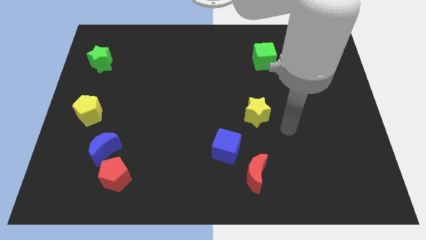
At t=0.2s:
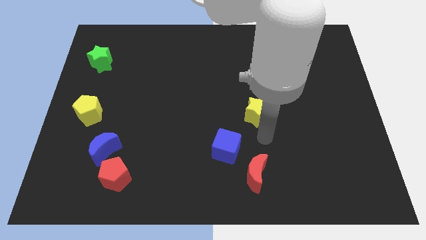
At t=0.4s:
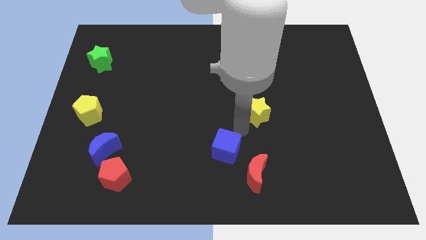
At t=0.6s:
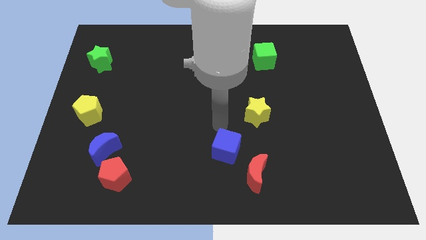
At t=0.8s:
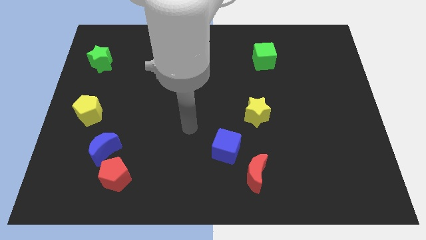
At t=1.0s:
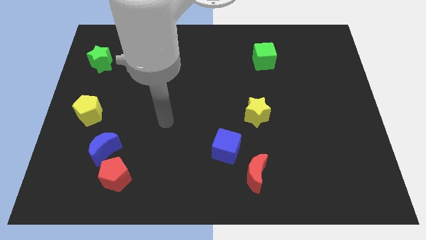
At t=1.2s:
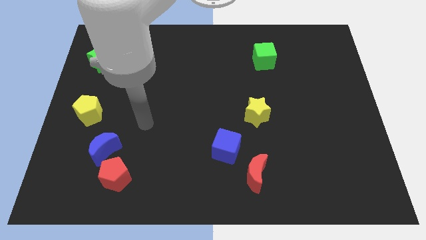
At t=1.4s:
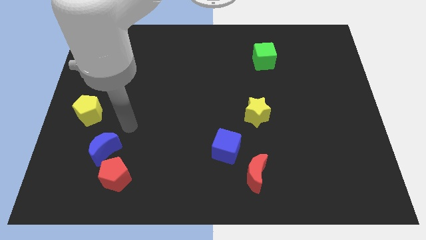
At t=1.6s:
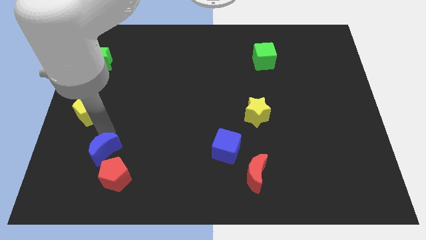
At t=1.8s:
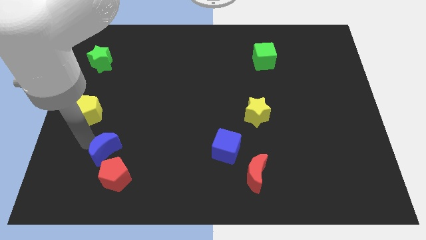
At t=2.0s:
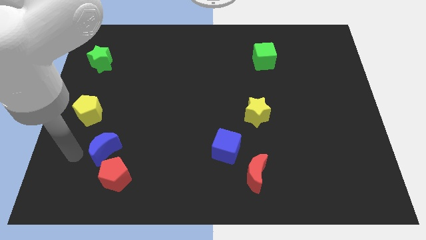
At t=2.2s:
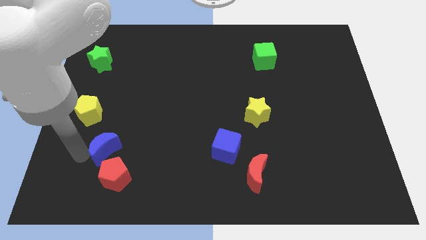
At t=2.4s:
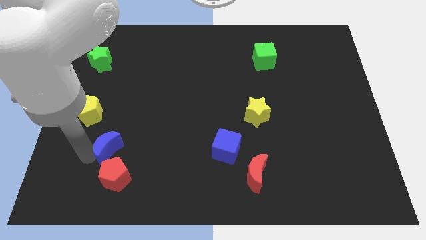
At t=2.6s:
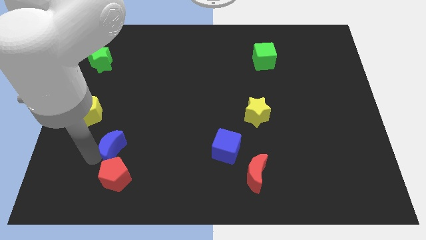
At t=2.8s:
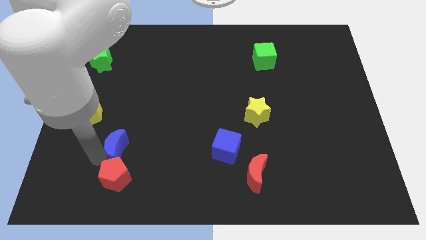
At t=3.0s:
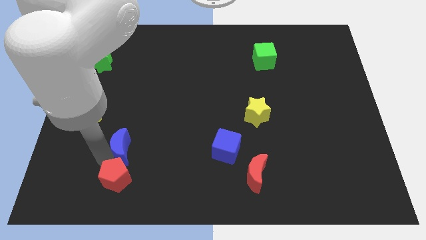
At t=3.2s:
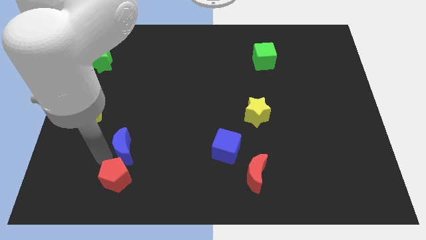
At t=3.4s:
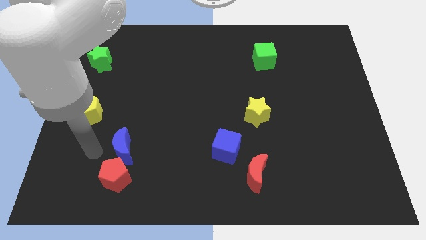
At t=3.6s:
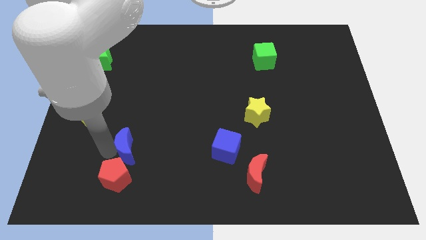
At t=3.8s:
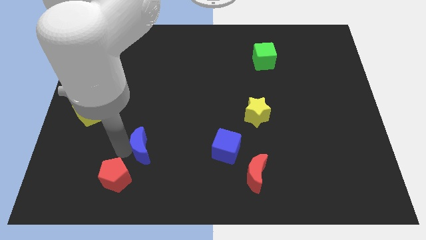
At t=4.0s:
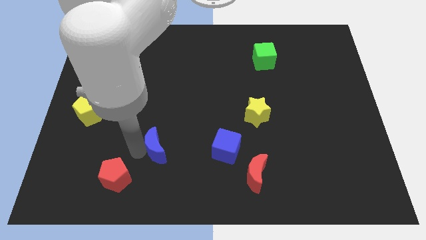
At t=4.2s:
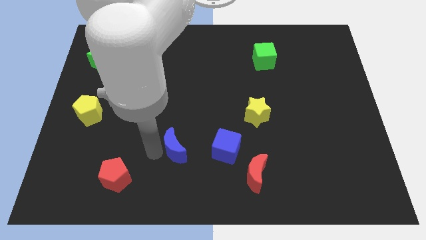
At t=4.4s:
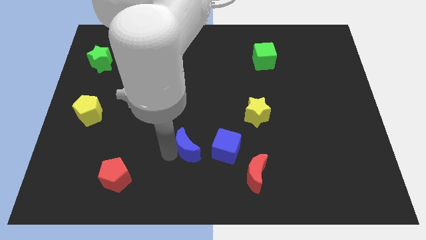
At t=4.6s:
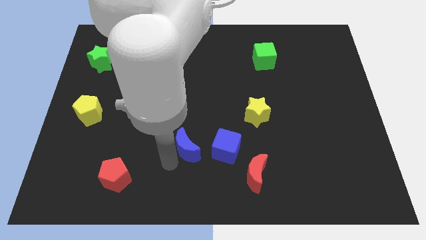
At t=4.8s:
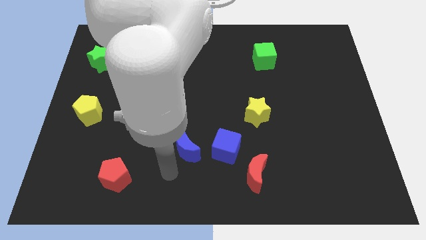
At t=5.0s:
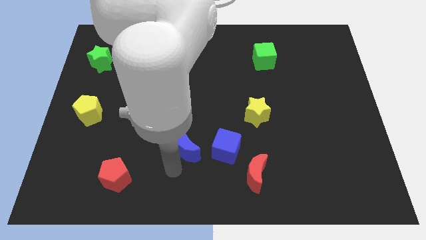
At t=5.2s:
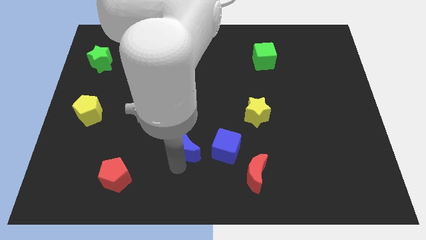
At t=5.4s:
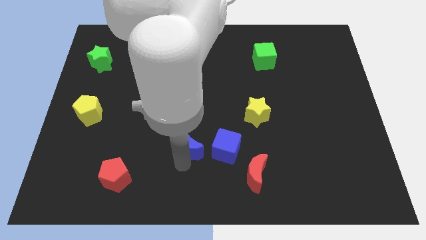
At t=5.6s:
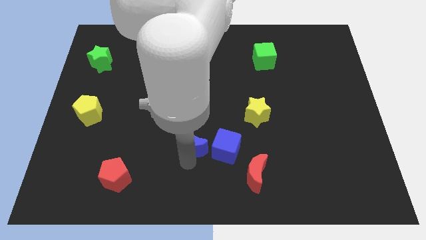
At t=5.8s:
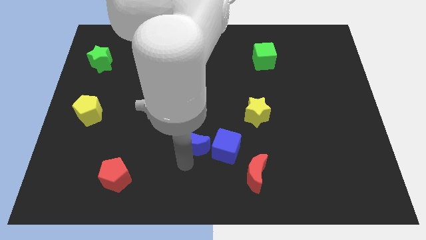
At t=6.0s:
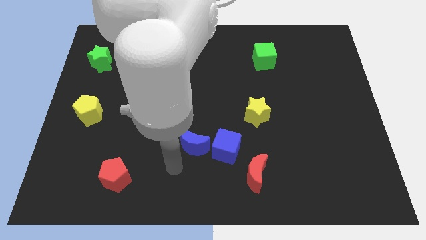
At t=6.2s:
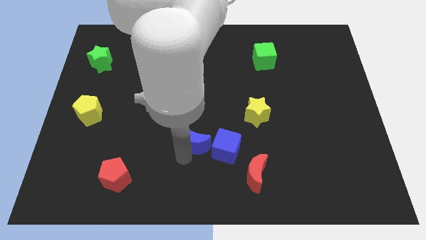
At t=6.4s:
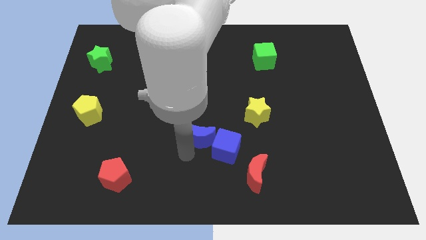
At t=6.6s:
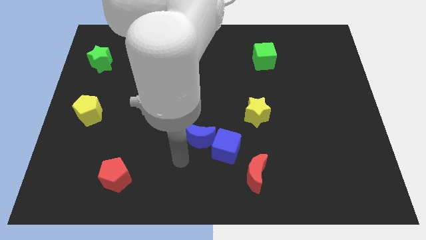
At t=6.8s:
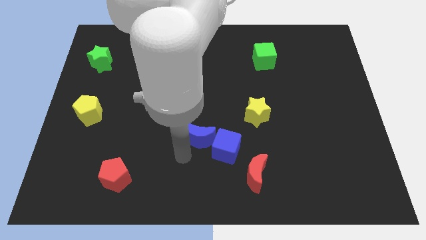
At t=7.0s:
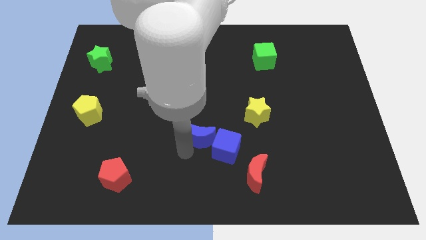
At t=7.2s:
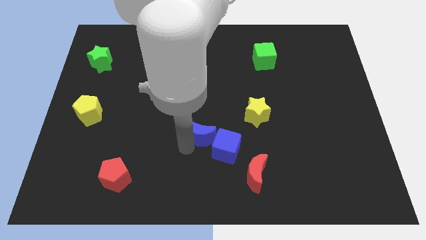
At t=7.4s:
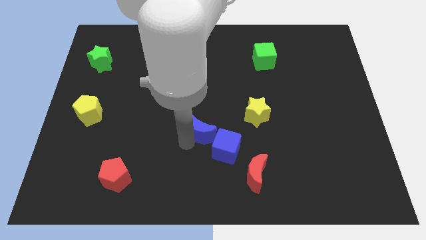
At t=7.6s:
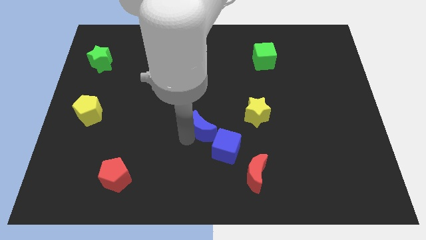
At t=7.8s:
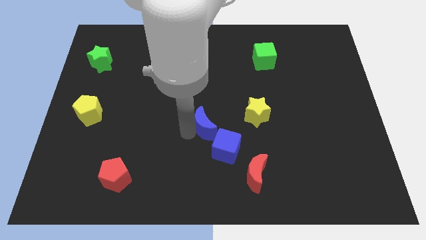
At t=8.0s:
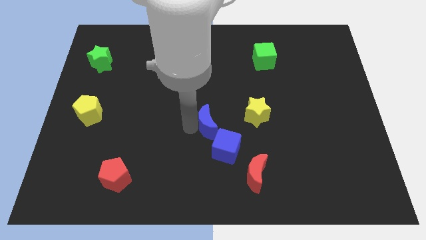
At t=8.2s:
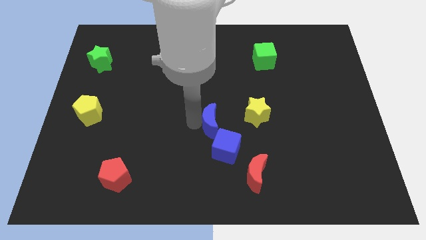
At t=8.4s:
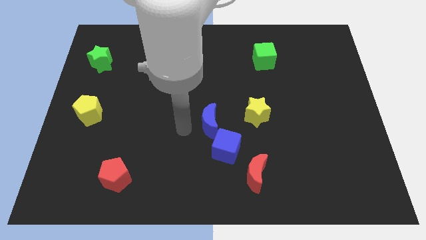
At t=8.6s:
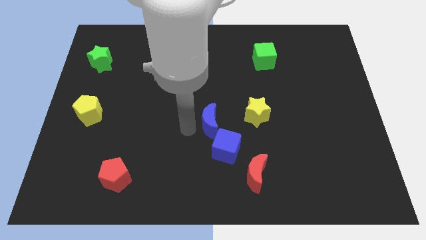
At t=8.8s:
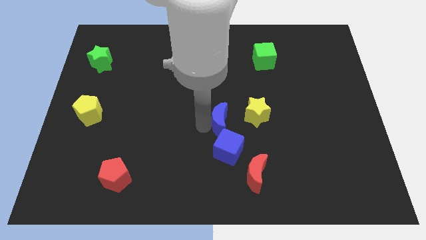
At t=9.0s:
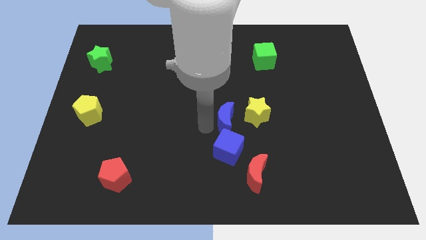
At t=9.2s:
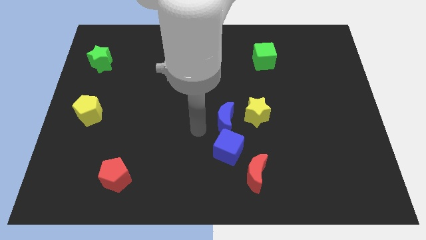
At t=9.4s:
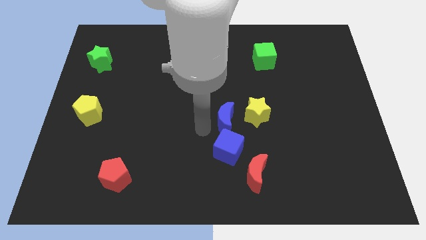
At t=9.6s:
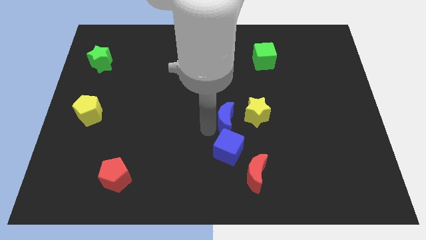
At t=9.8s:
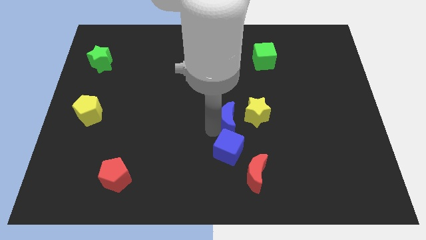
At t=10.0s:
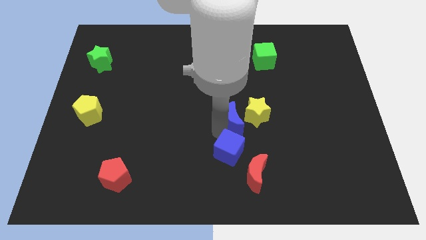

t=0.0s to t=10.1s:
move the blue moon to the yellow star

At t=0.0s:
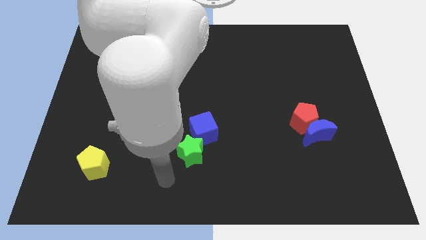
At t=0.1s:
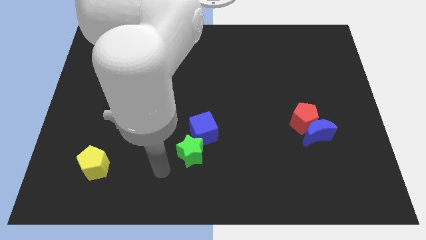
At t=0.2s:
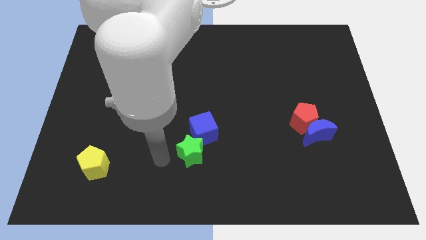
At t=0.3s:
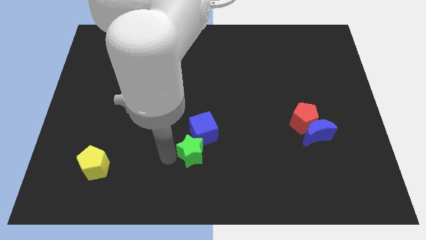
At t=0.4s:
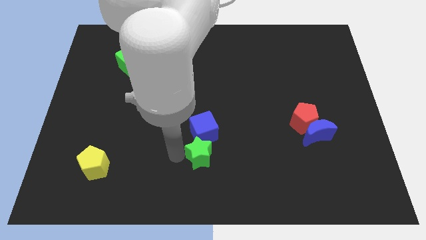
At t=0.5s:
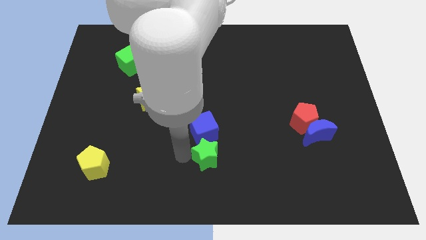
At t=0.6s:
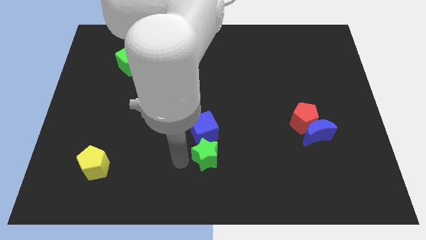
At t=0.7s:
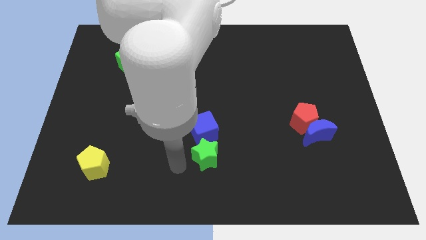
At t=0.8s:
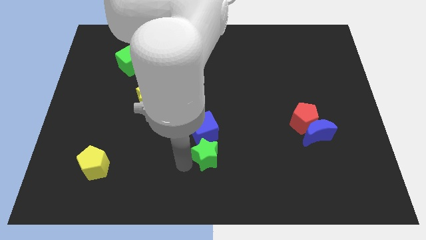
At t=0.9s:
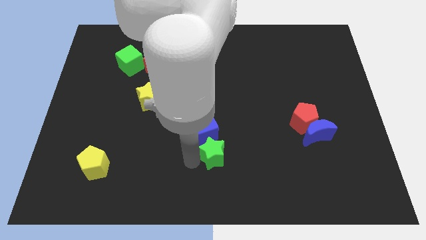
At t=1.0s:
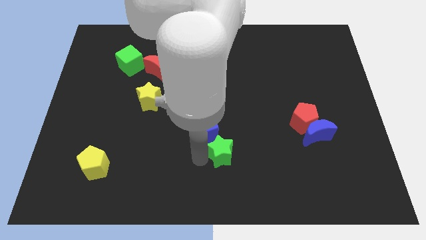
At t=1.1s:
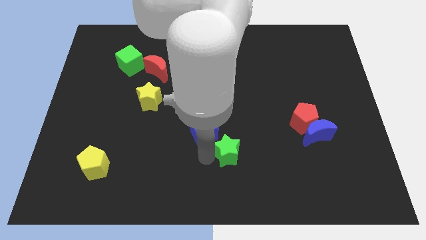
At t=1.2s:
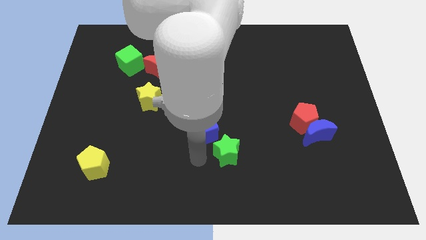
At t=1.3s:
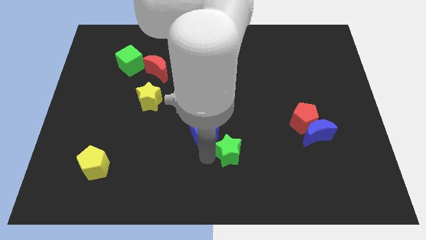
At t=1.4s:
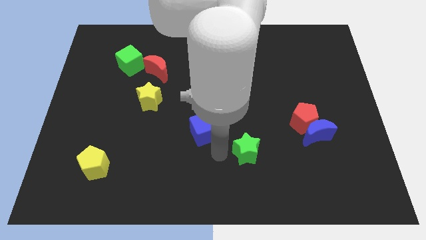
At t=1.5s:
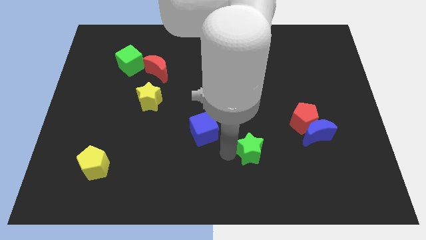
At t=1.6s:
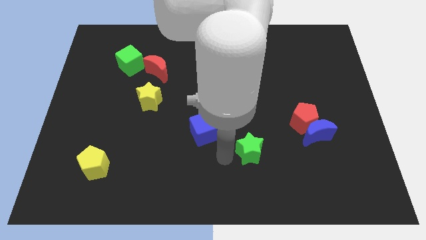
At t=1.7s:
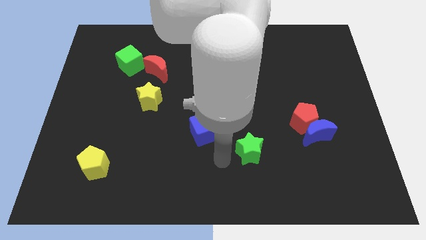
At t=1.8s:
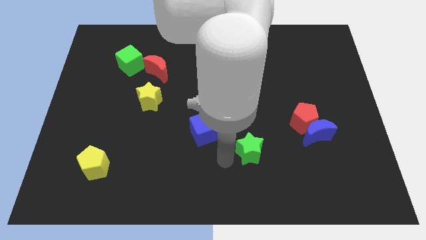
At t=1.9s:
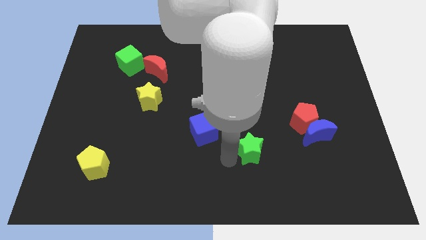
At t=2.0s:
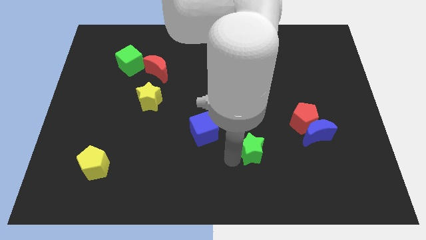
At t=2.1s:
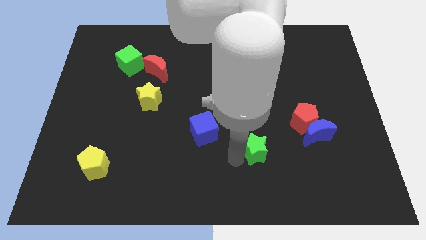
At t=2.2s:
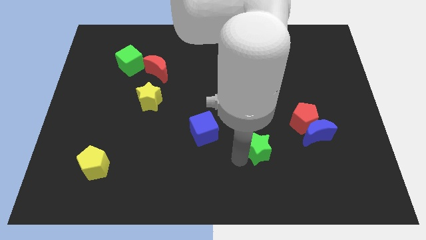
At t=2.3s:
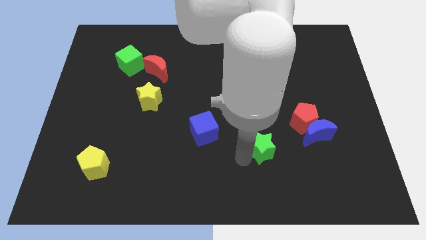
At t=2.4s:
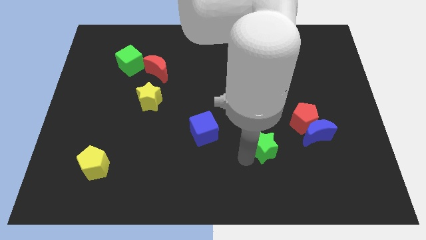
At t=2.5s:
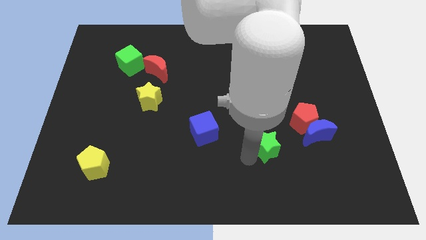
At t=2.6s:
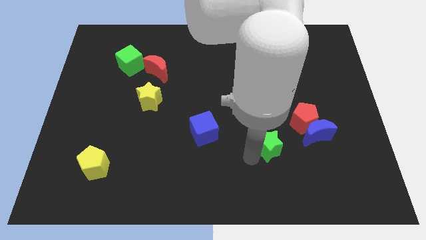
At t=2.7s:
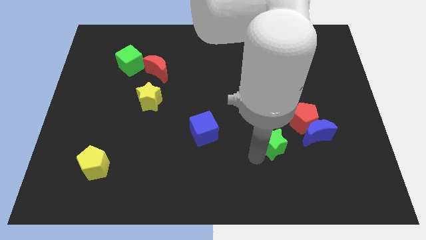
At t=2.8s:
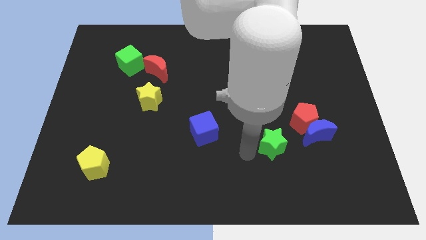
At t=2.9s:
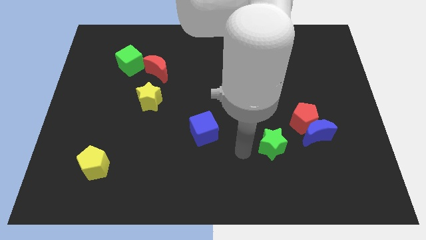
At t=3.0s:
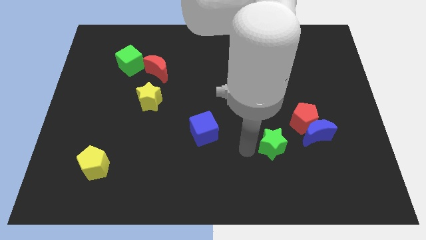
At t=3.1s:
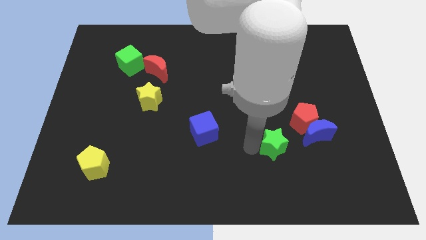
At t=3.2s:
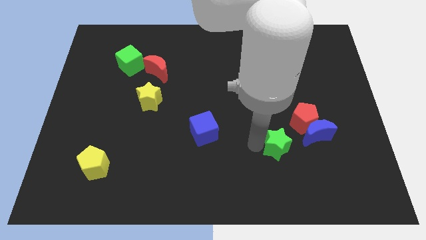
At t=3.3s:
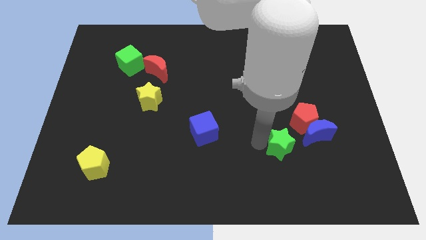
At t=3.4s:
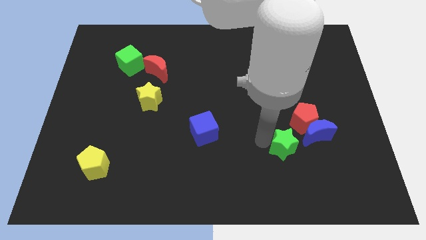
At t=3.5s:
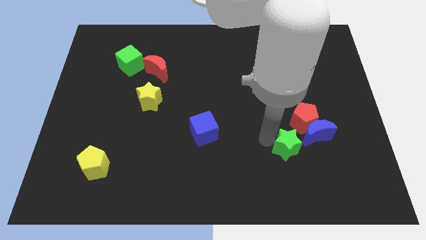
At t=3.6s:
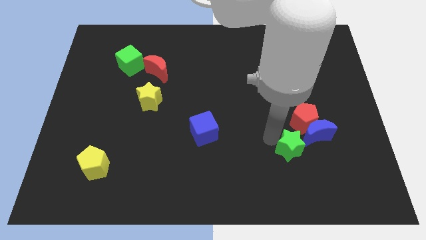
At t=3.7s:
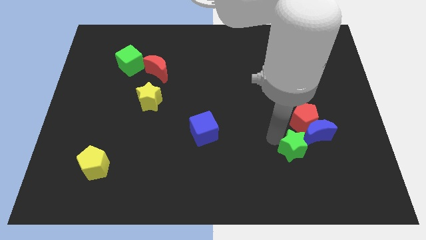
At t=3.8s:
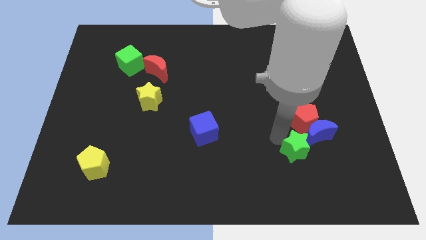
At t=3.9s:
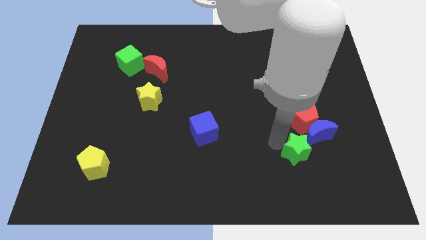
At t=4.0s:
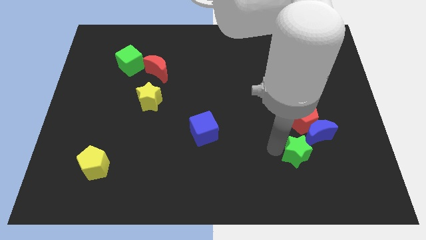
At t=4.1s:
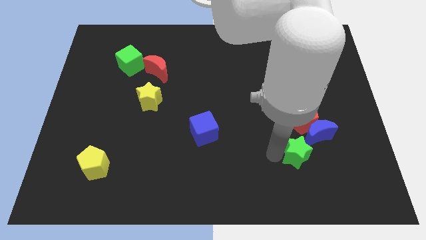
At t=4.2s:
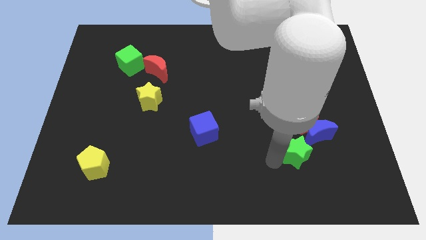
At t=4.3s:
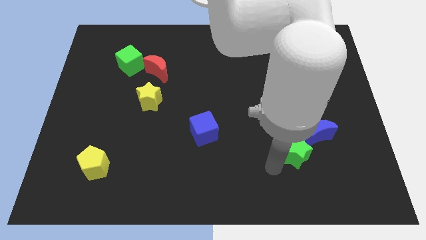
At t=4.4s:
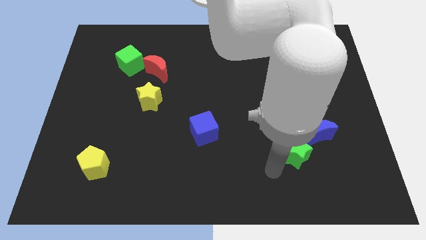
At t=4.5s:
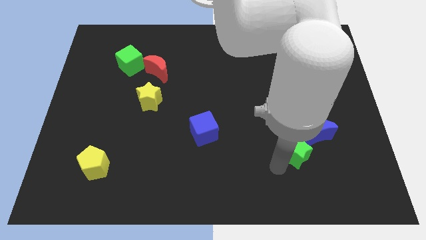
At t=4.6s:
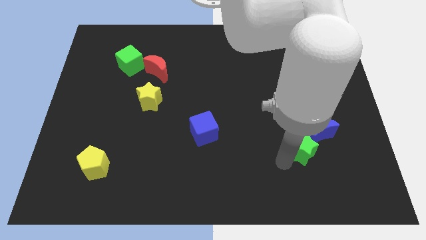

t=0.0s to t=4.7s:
put the green star to the blue moon
